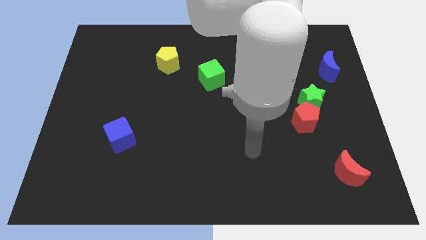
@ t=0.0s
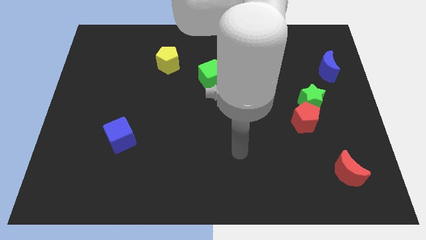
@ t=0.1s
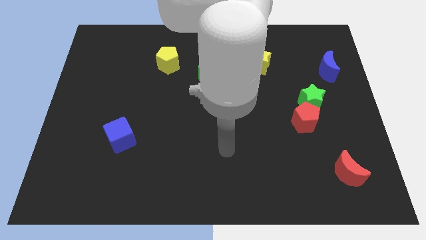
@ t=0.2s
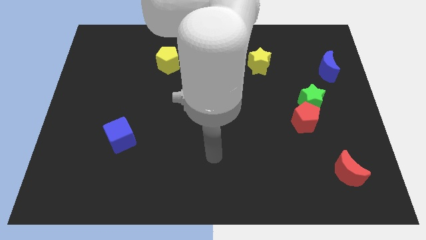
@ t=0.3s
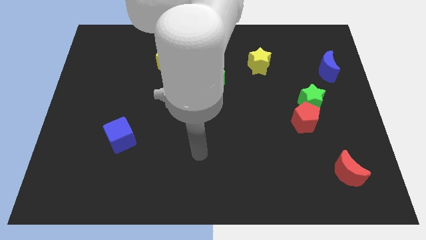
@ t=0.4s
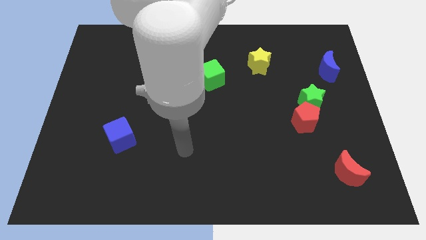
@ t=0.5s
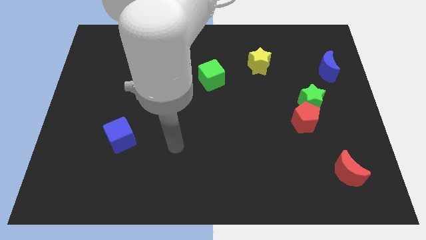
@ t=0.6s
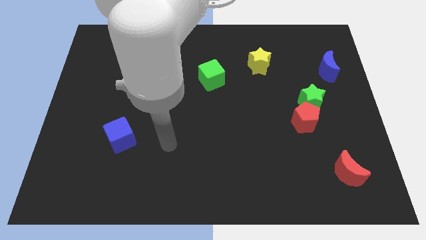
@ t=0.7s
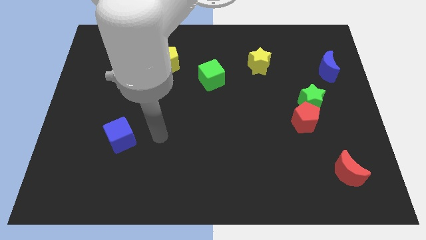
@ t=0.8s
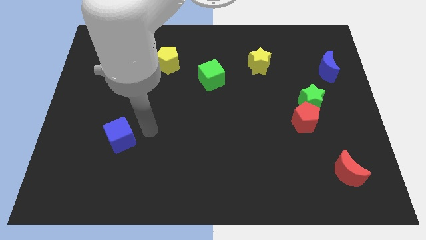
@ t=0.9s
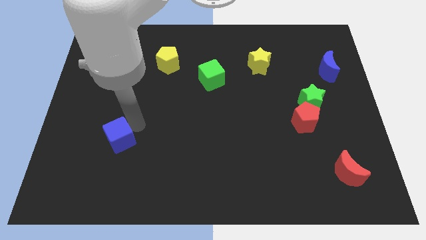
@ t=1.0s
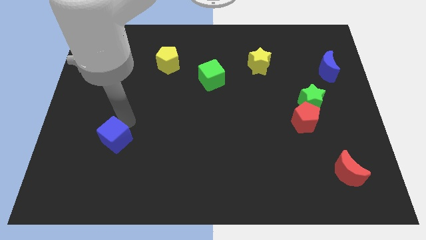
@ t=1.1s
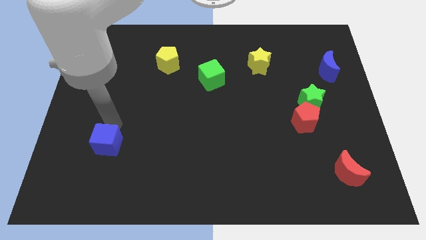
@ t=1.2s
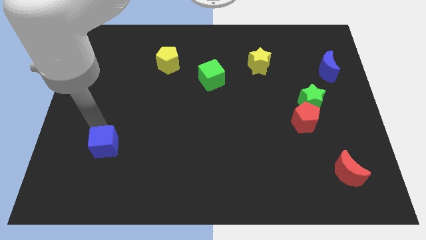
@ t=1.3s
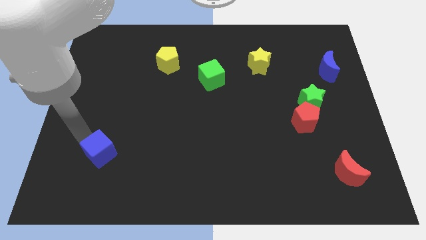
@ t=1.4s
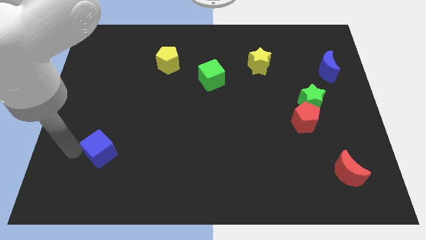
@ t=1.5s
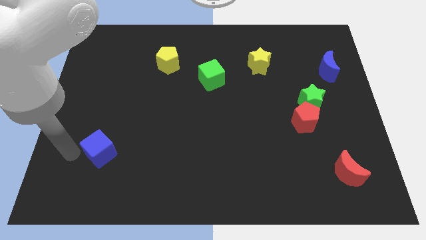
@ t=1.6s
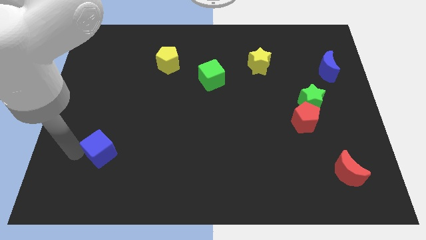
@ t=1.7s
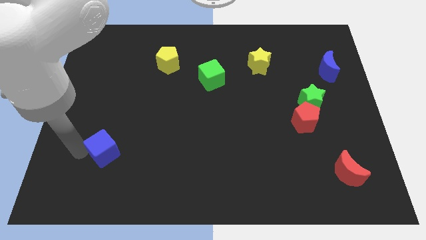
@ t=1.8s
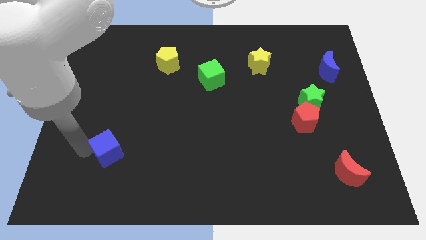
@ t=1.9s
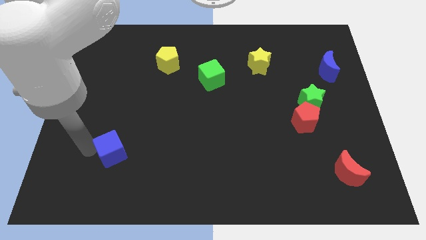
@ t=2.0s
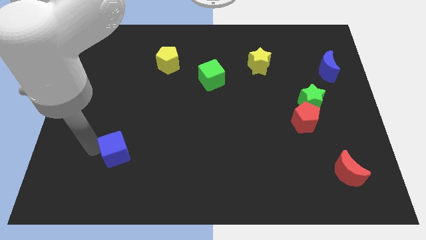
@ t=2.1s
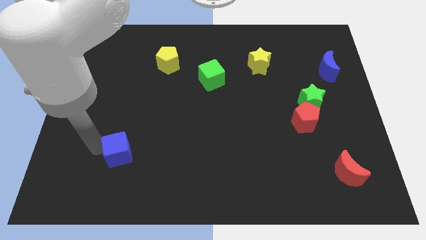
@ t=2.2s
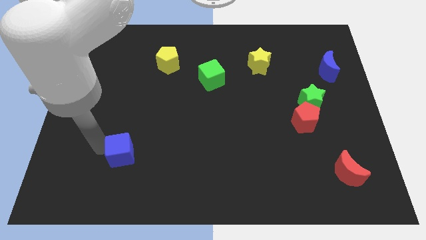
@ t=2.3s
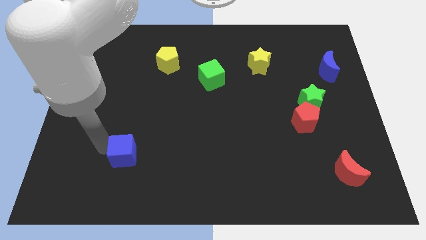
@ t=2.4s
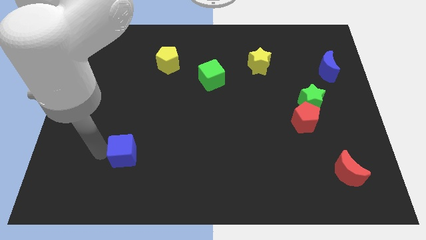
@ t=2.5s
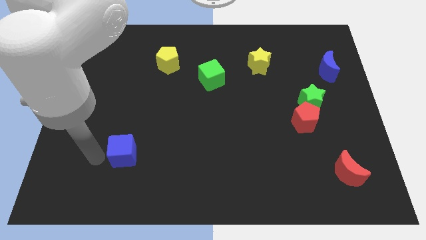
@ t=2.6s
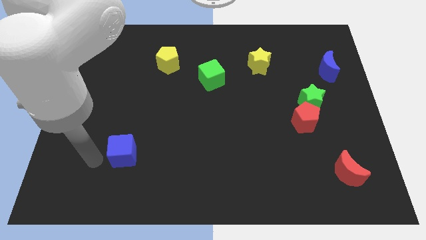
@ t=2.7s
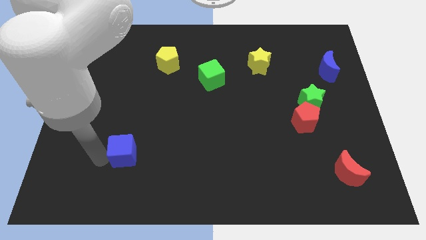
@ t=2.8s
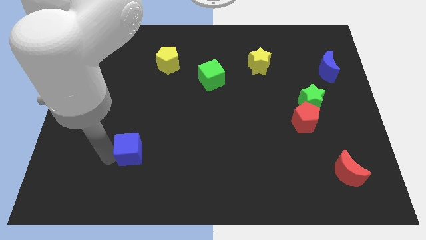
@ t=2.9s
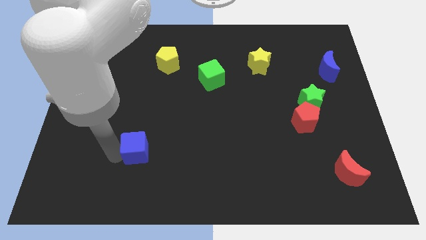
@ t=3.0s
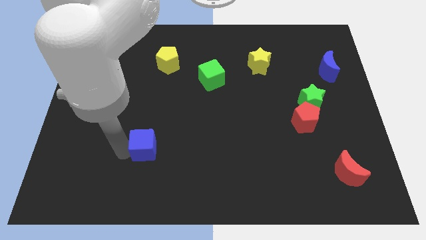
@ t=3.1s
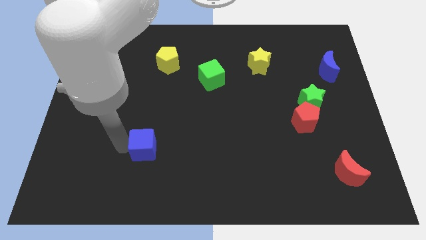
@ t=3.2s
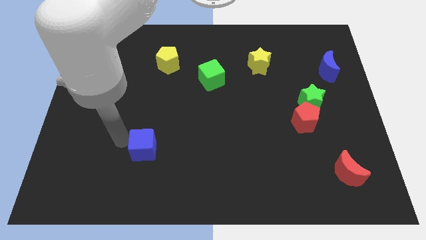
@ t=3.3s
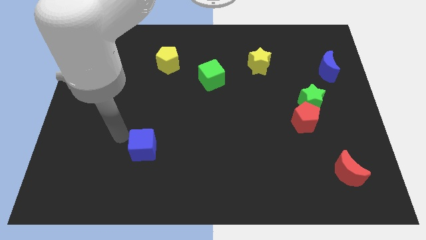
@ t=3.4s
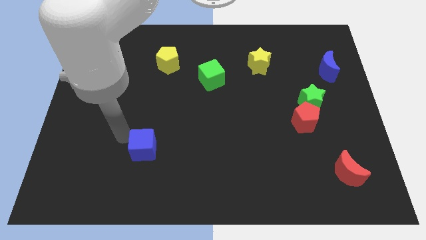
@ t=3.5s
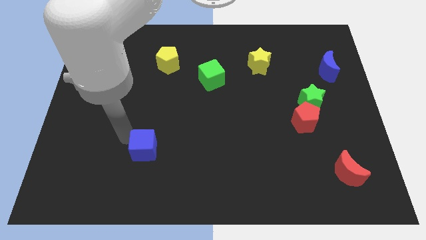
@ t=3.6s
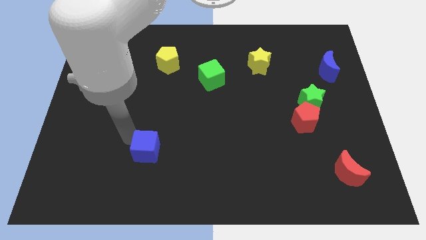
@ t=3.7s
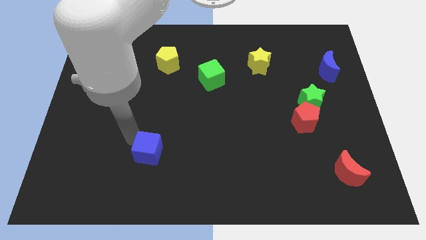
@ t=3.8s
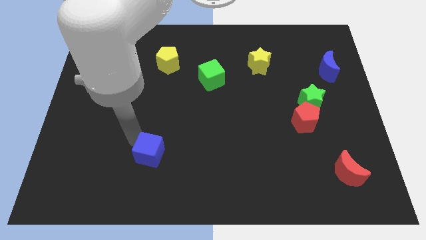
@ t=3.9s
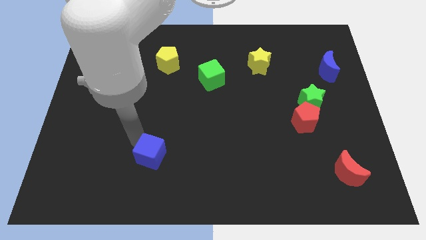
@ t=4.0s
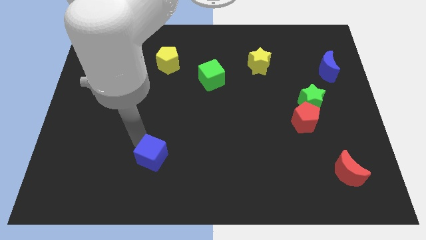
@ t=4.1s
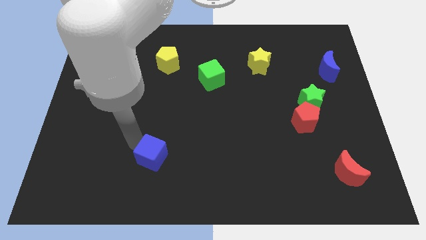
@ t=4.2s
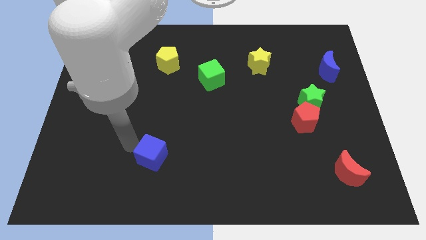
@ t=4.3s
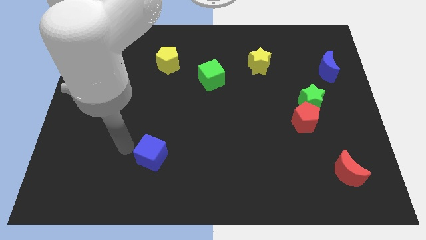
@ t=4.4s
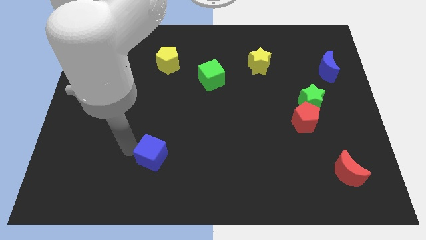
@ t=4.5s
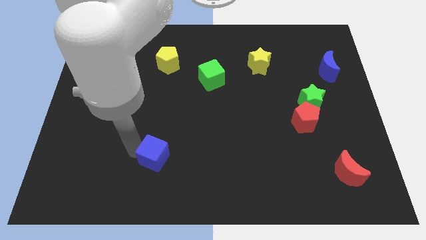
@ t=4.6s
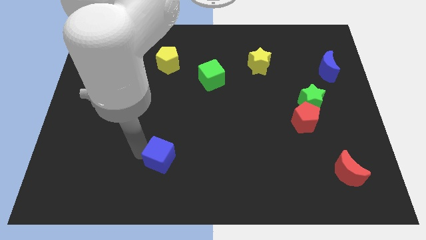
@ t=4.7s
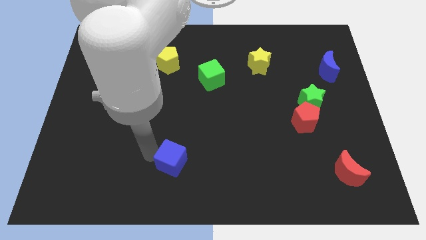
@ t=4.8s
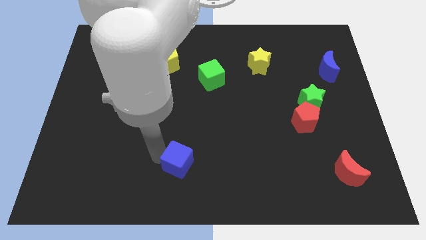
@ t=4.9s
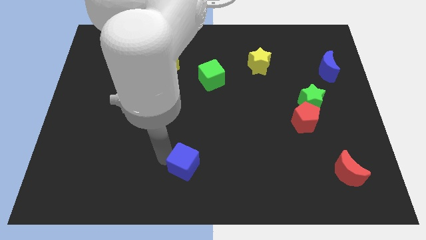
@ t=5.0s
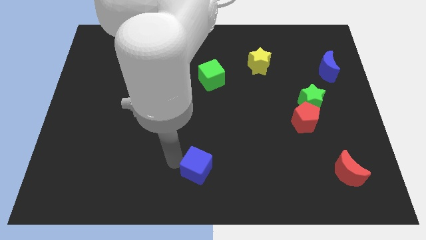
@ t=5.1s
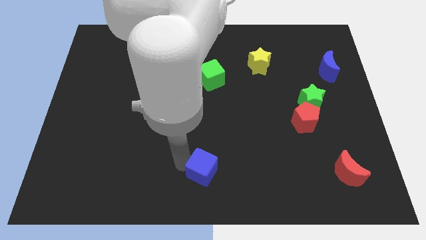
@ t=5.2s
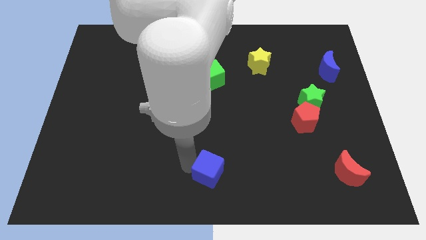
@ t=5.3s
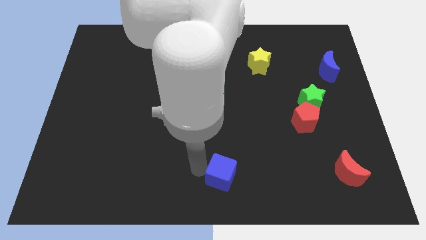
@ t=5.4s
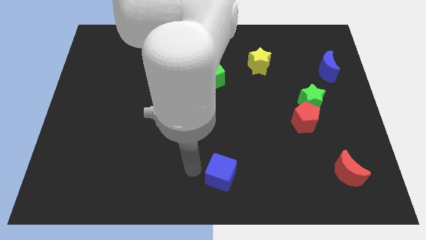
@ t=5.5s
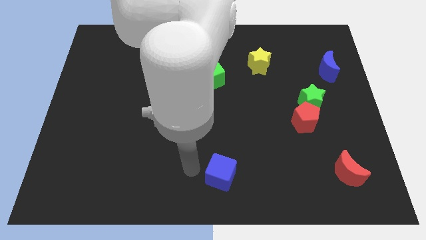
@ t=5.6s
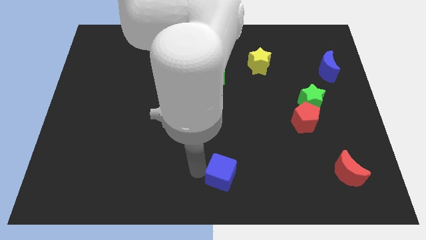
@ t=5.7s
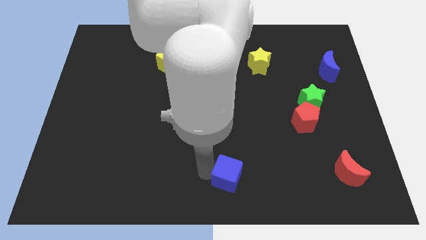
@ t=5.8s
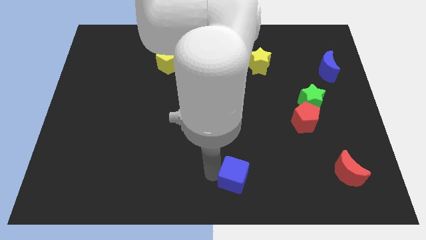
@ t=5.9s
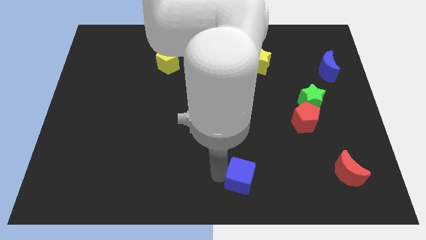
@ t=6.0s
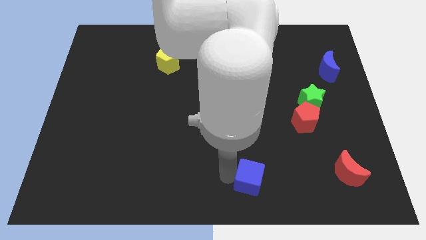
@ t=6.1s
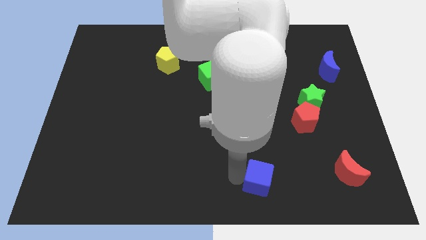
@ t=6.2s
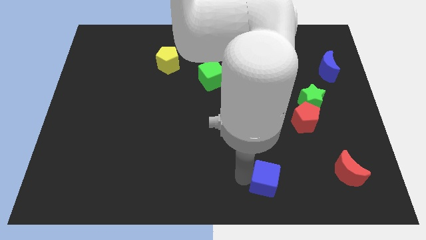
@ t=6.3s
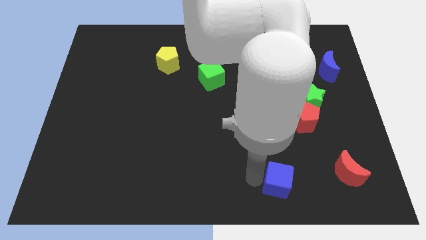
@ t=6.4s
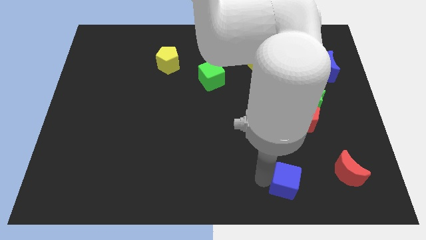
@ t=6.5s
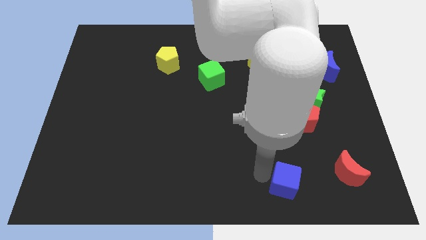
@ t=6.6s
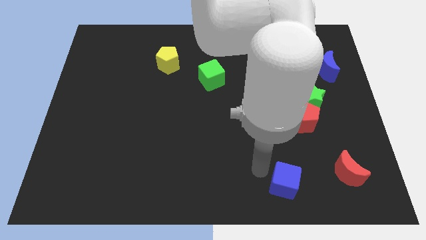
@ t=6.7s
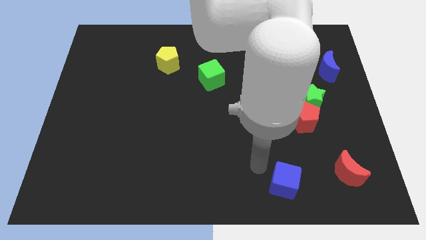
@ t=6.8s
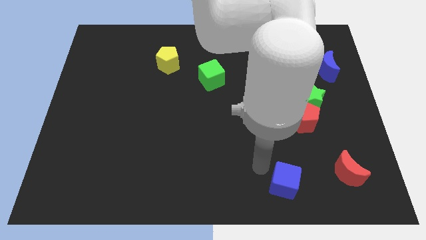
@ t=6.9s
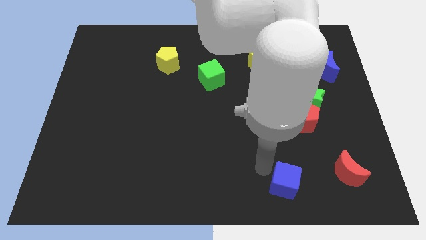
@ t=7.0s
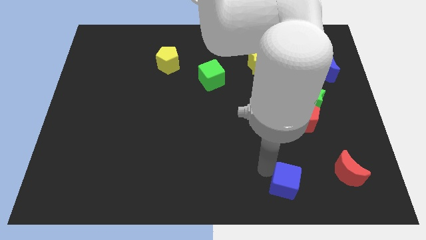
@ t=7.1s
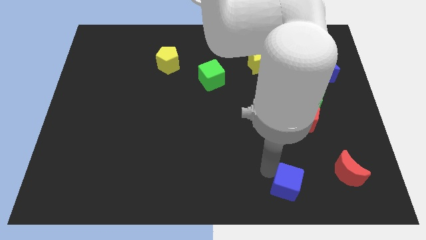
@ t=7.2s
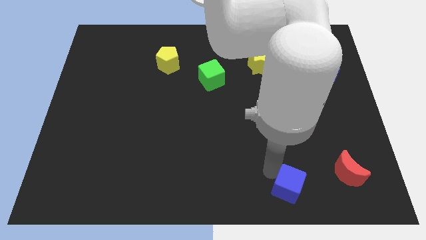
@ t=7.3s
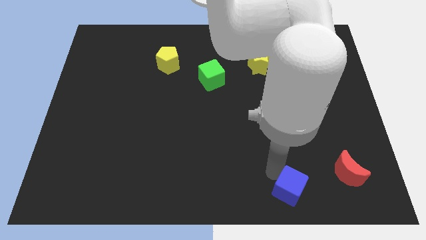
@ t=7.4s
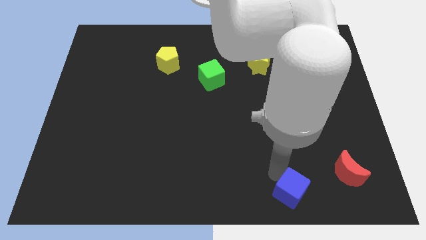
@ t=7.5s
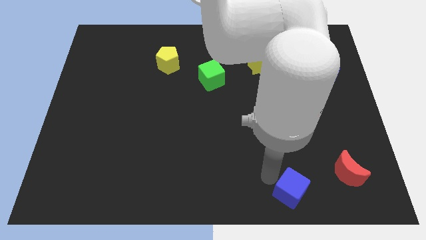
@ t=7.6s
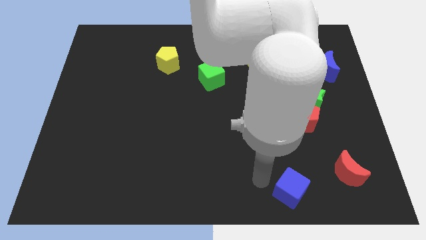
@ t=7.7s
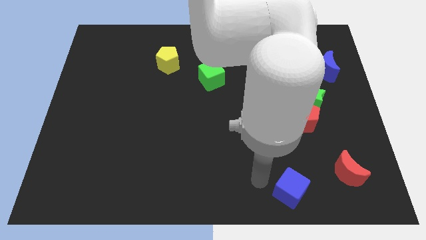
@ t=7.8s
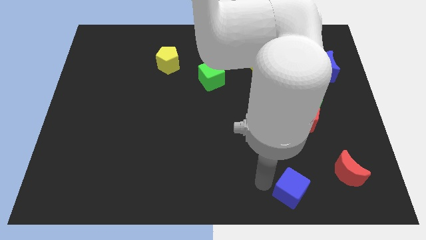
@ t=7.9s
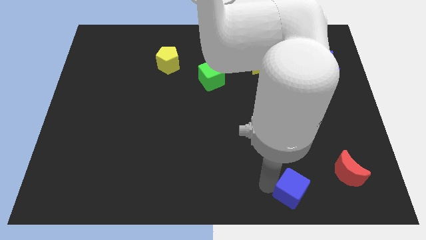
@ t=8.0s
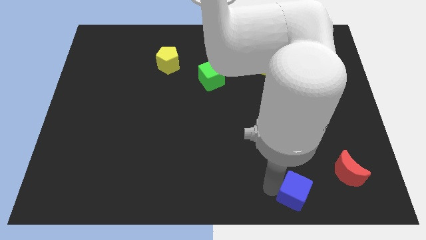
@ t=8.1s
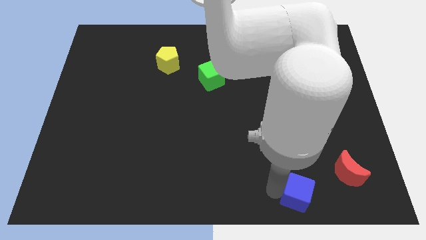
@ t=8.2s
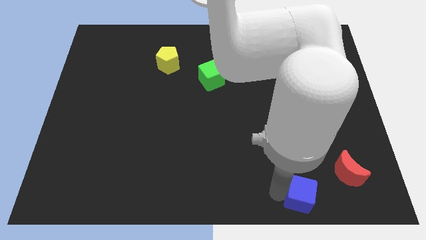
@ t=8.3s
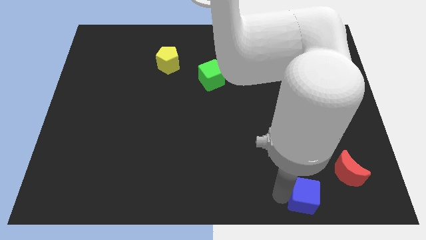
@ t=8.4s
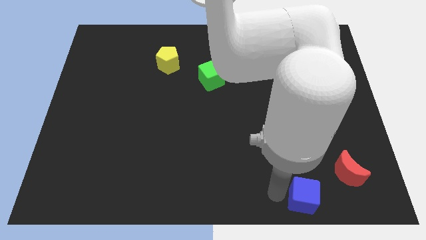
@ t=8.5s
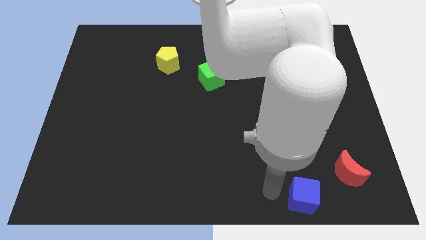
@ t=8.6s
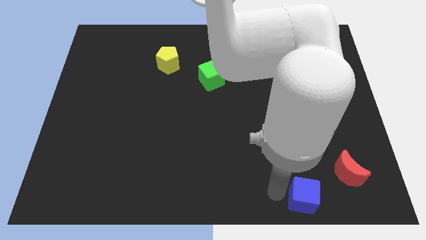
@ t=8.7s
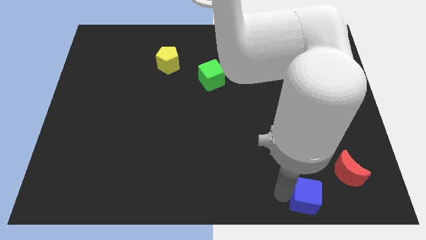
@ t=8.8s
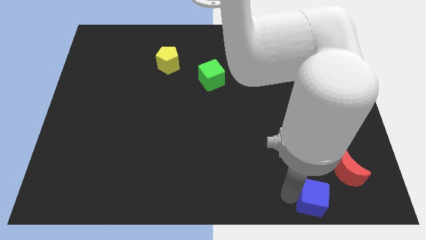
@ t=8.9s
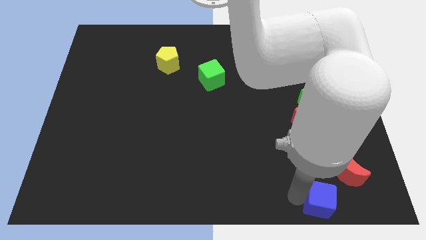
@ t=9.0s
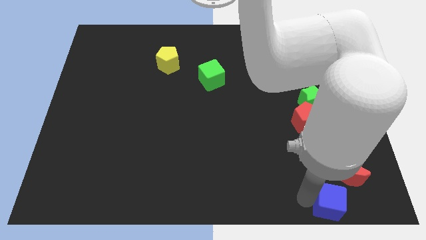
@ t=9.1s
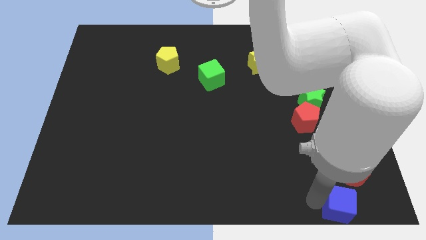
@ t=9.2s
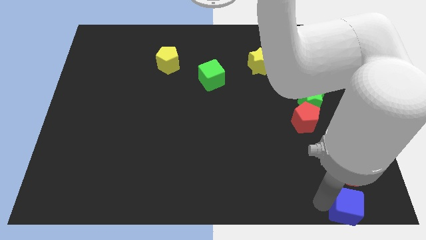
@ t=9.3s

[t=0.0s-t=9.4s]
move the blue cube to the bottom right
